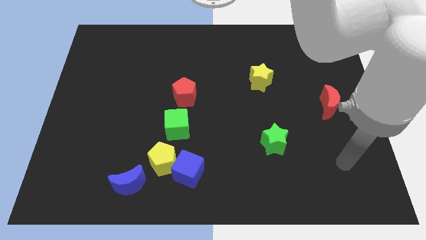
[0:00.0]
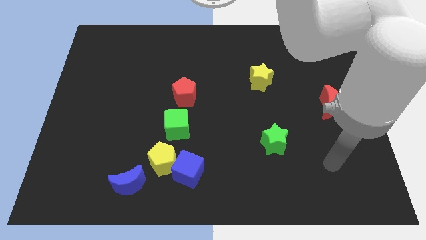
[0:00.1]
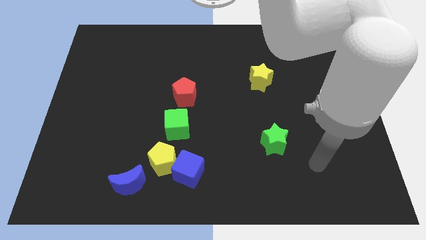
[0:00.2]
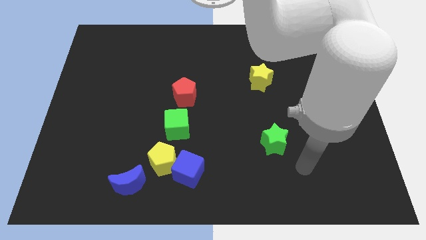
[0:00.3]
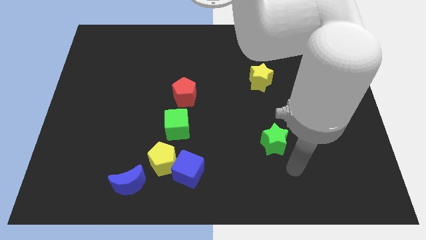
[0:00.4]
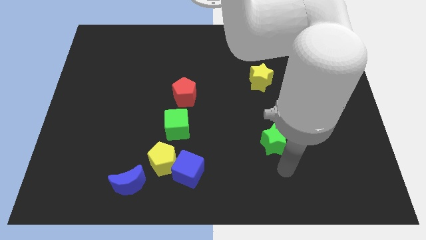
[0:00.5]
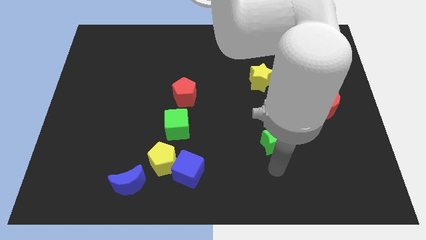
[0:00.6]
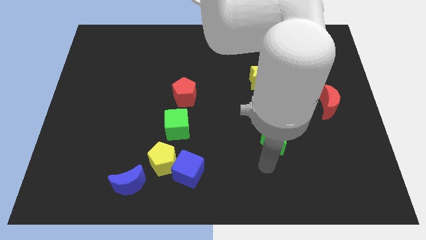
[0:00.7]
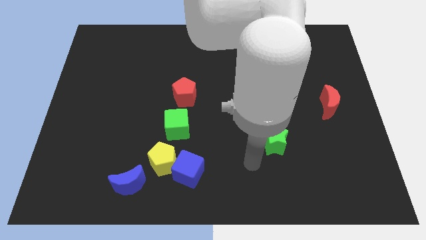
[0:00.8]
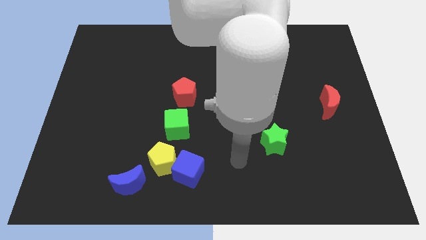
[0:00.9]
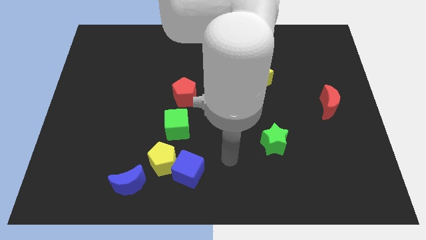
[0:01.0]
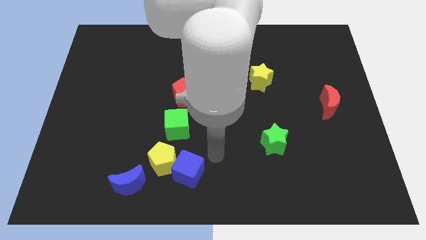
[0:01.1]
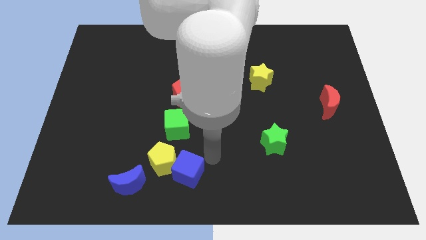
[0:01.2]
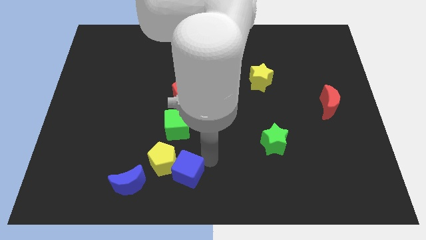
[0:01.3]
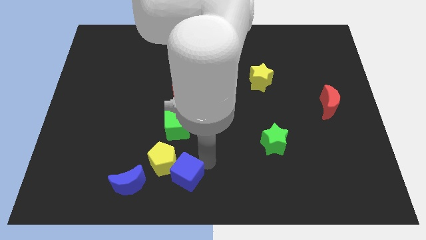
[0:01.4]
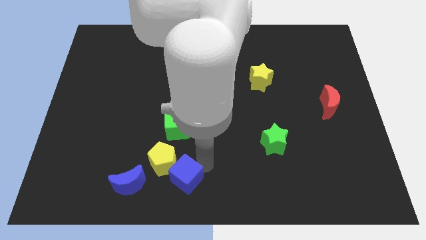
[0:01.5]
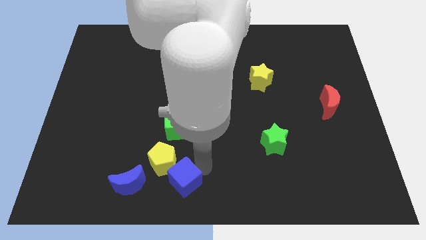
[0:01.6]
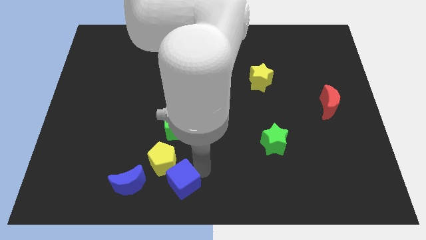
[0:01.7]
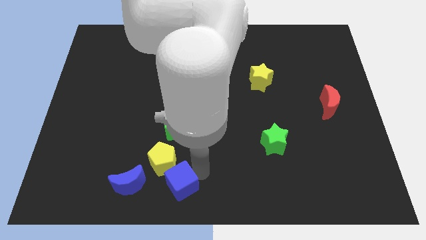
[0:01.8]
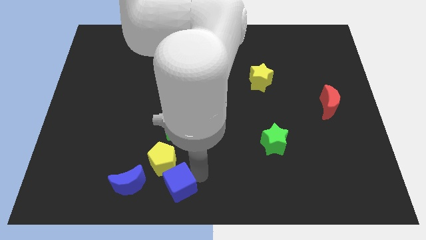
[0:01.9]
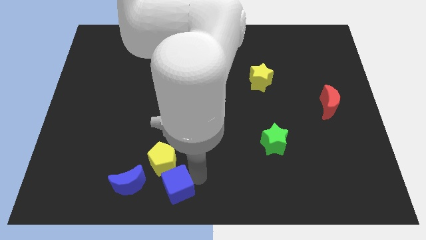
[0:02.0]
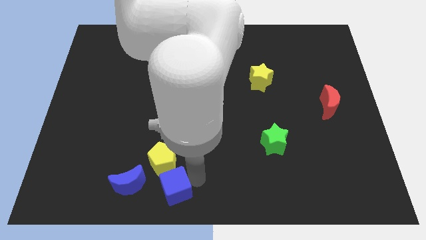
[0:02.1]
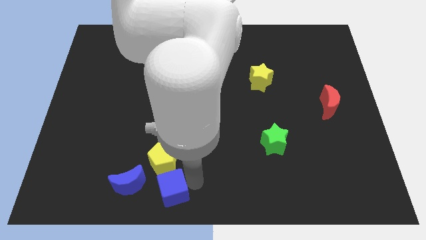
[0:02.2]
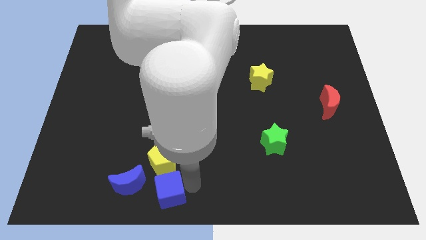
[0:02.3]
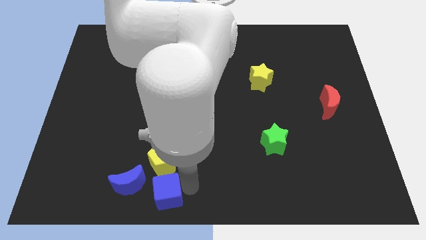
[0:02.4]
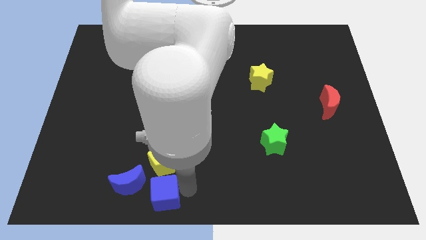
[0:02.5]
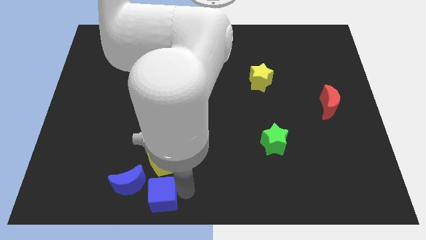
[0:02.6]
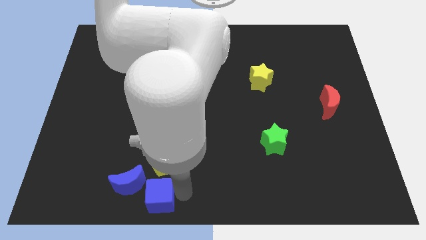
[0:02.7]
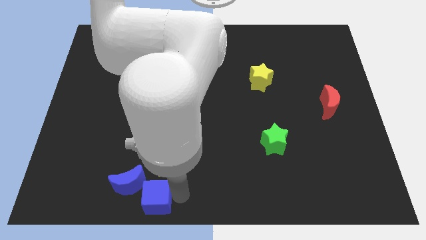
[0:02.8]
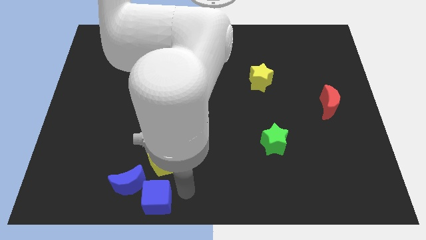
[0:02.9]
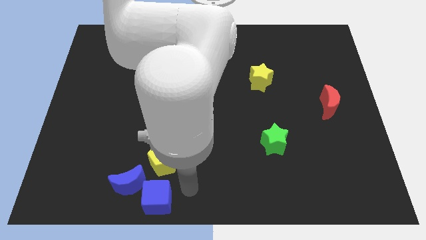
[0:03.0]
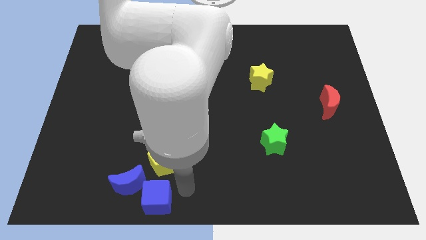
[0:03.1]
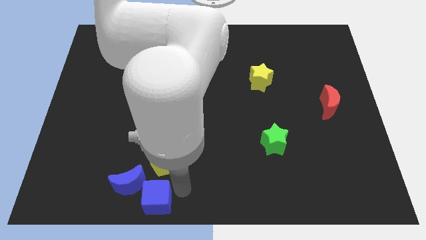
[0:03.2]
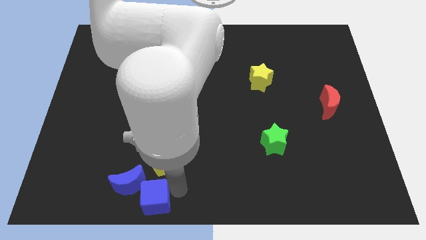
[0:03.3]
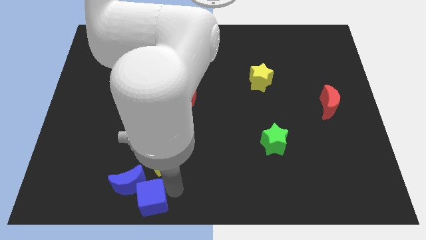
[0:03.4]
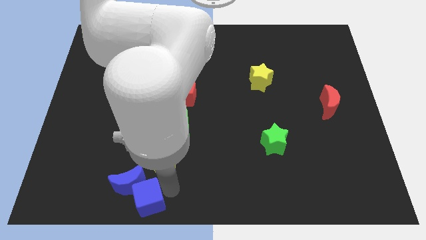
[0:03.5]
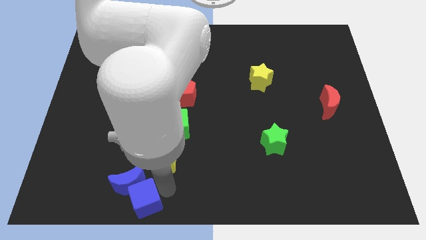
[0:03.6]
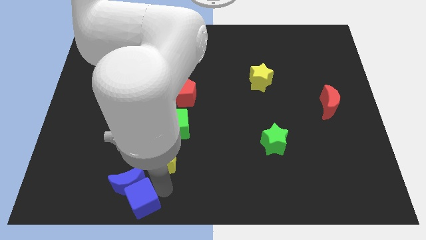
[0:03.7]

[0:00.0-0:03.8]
slightly push the blue cube left

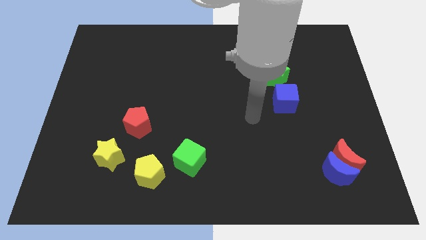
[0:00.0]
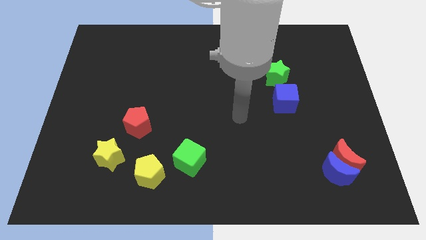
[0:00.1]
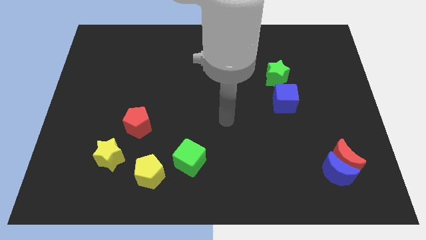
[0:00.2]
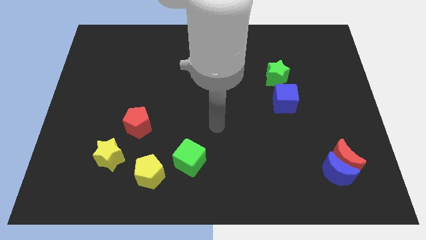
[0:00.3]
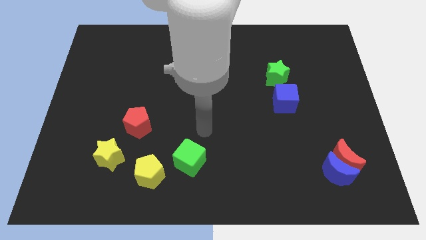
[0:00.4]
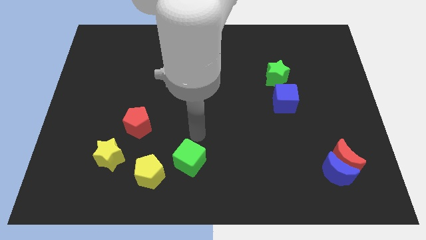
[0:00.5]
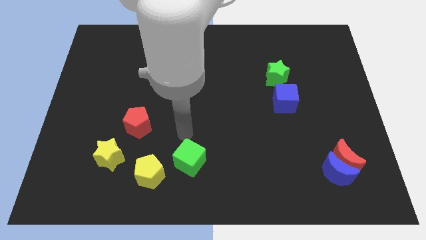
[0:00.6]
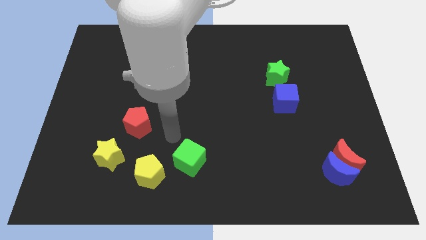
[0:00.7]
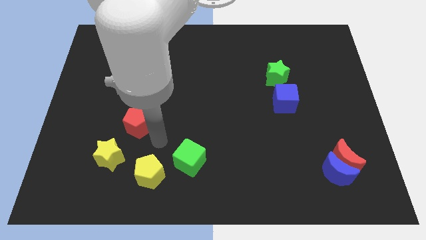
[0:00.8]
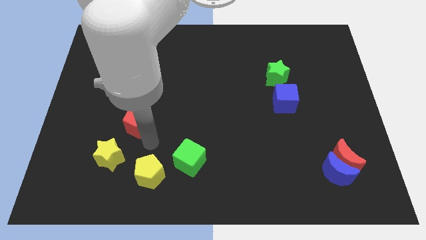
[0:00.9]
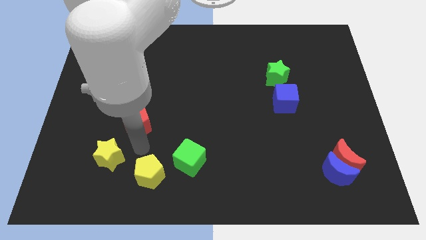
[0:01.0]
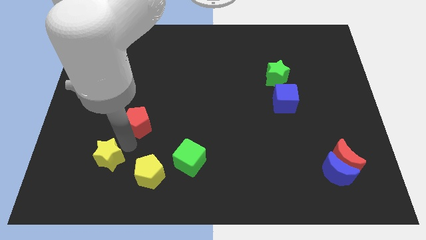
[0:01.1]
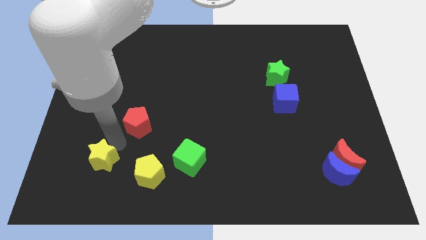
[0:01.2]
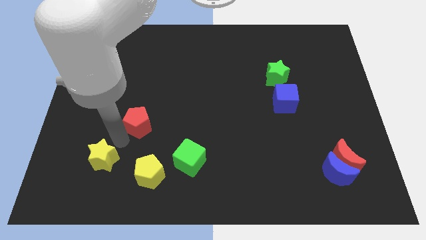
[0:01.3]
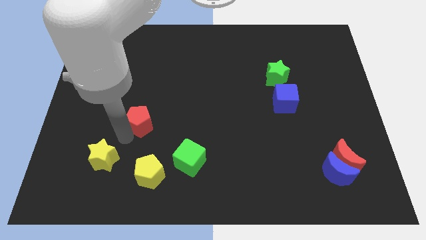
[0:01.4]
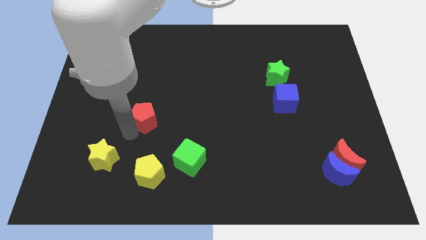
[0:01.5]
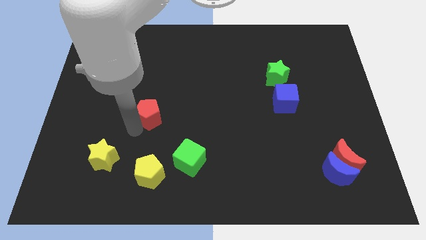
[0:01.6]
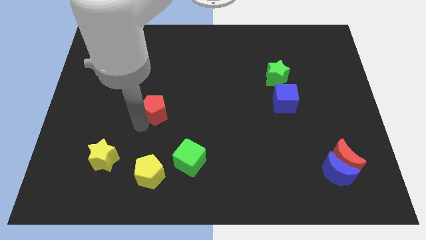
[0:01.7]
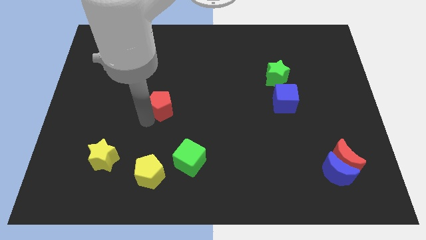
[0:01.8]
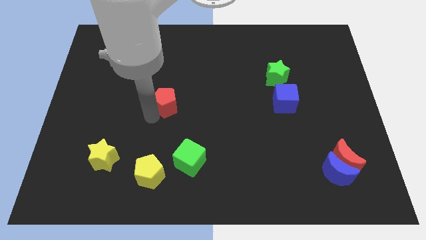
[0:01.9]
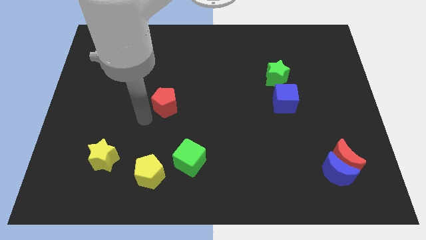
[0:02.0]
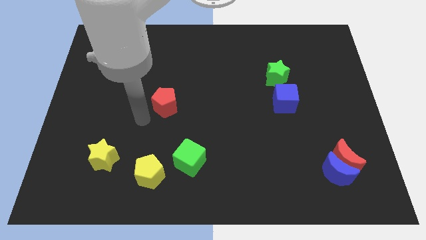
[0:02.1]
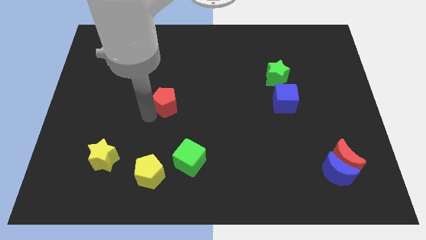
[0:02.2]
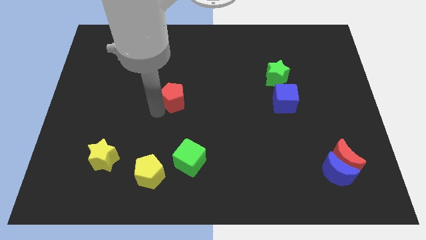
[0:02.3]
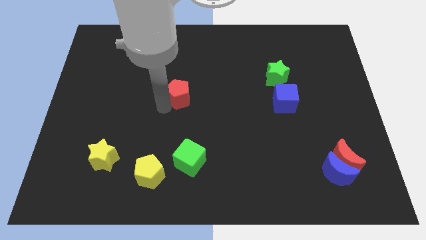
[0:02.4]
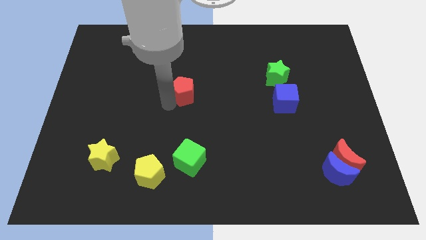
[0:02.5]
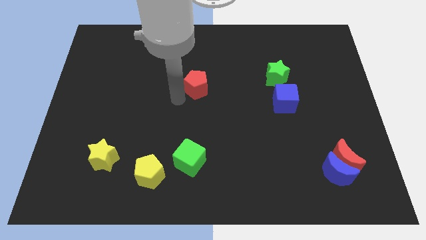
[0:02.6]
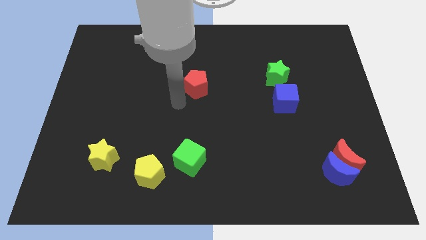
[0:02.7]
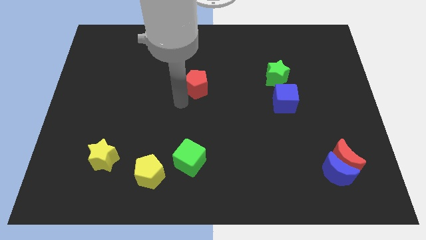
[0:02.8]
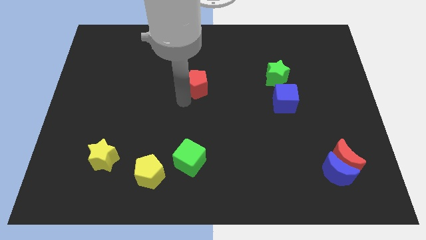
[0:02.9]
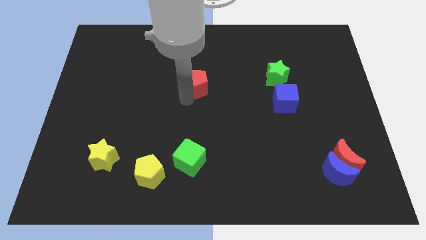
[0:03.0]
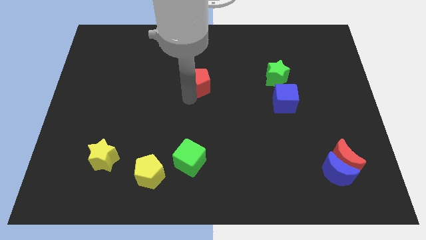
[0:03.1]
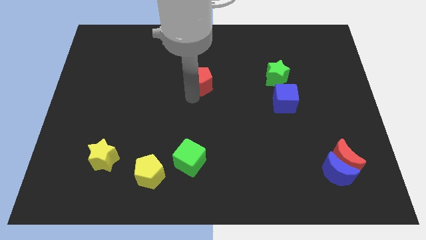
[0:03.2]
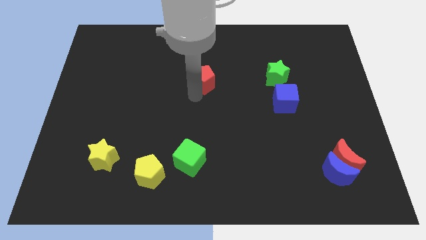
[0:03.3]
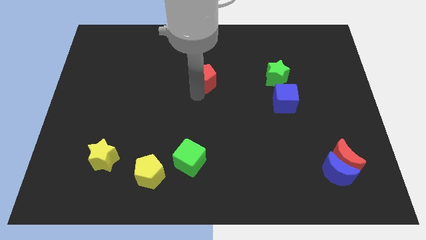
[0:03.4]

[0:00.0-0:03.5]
slide the red pentagon up and to the right
